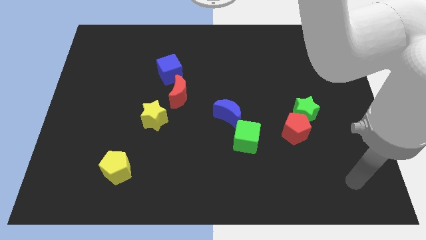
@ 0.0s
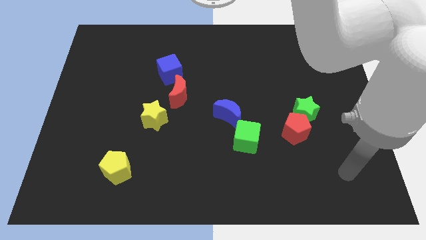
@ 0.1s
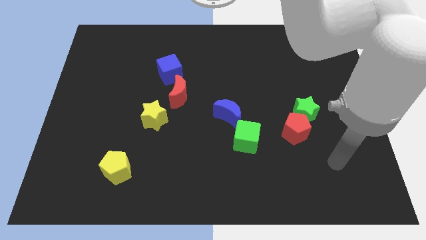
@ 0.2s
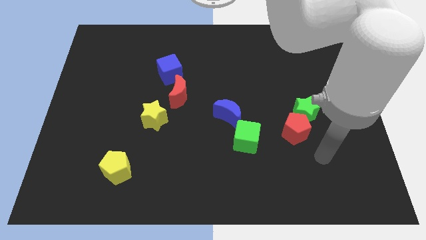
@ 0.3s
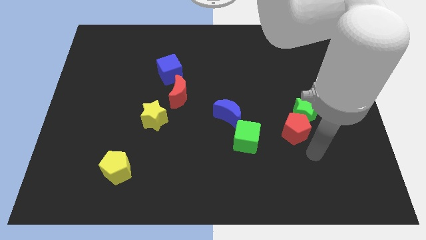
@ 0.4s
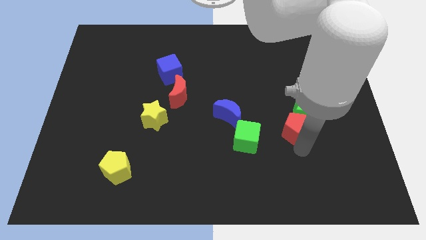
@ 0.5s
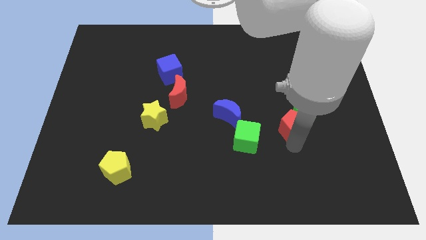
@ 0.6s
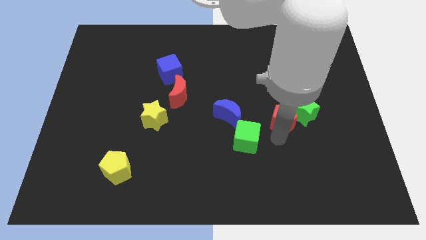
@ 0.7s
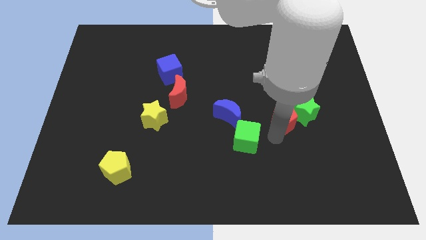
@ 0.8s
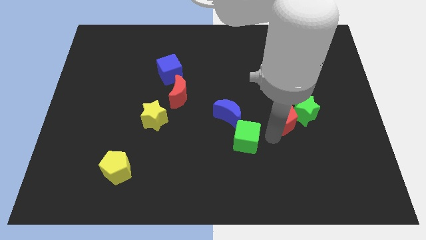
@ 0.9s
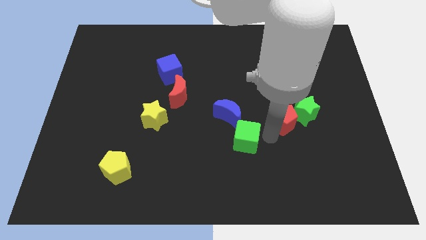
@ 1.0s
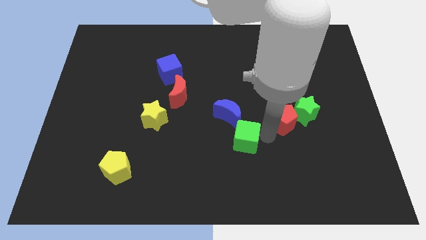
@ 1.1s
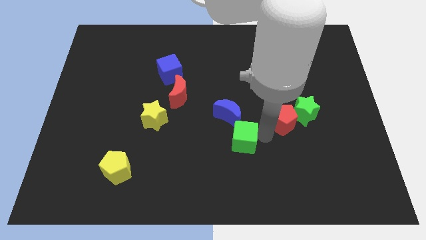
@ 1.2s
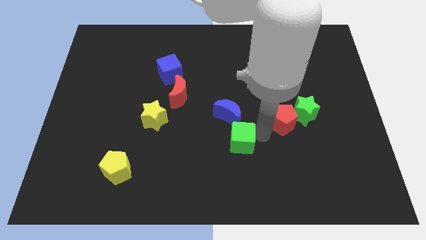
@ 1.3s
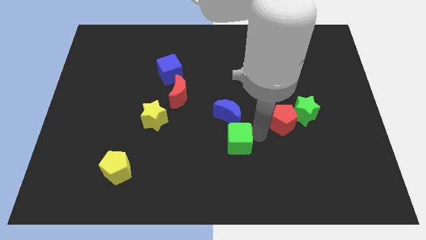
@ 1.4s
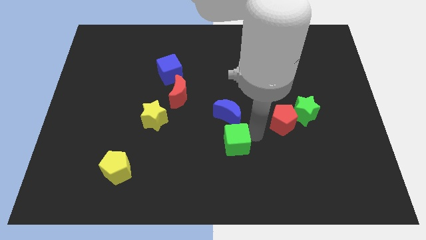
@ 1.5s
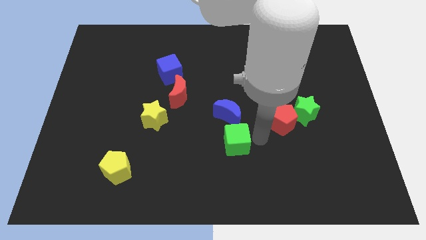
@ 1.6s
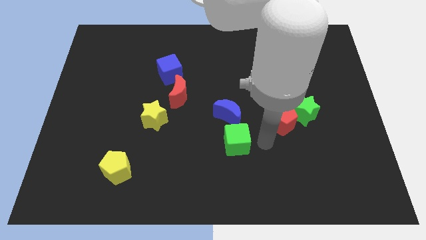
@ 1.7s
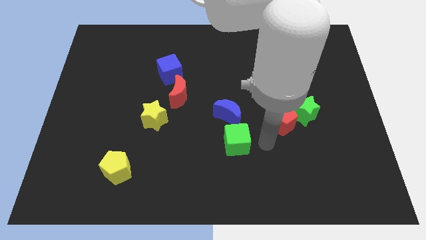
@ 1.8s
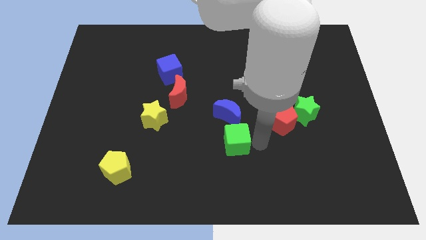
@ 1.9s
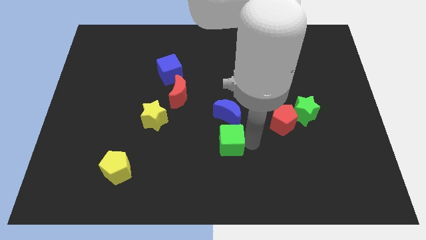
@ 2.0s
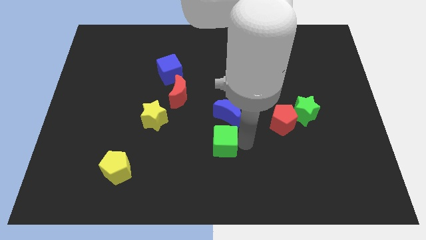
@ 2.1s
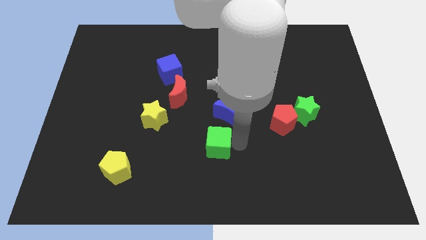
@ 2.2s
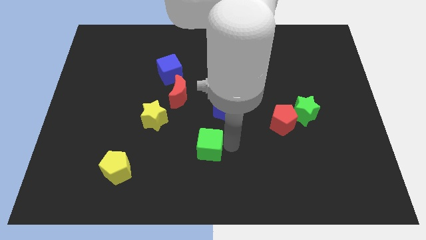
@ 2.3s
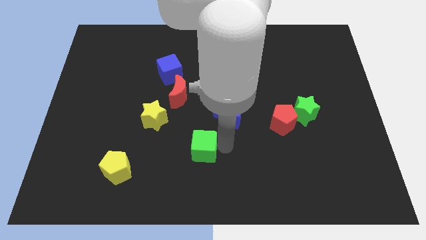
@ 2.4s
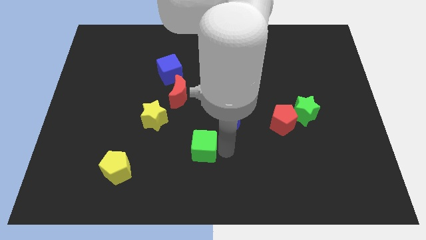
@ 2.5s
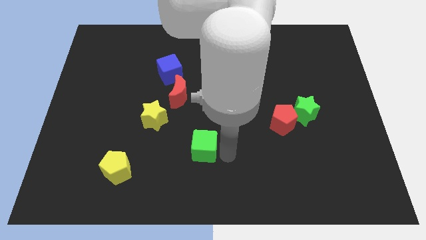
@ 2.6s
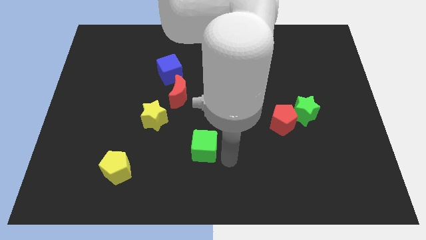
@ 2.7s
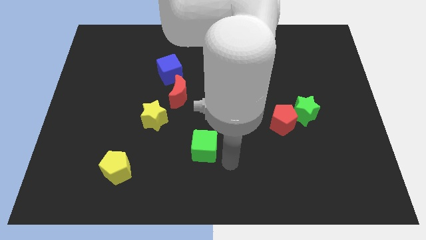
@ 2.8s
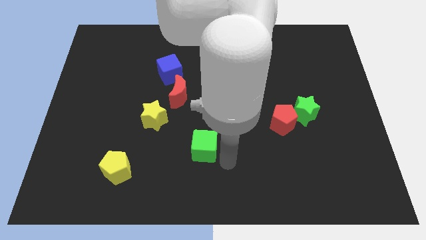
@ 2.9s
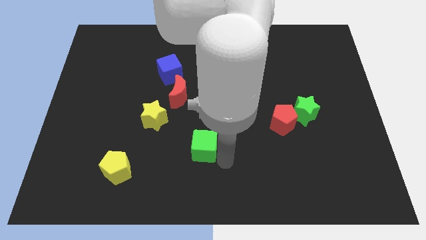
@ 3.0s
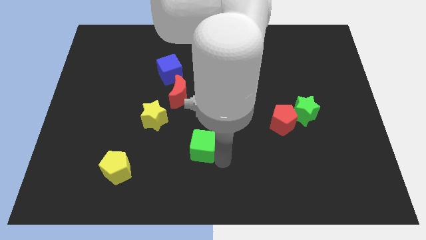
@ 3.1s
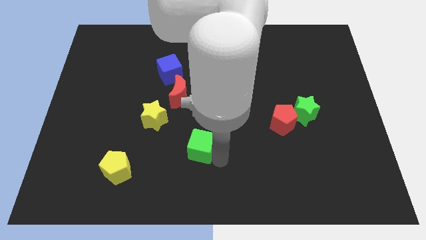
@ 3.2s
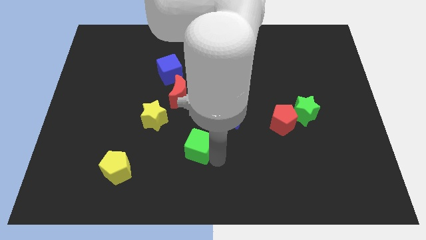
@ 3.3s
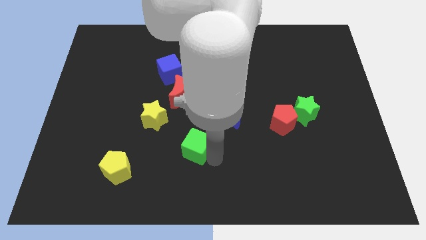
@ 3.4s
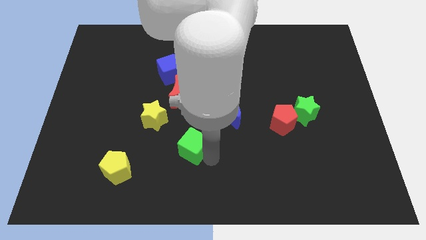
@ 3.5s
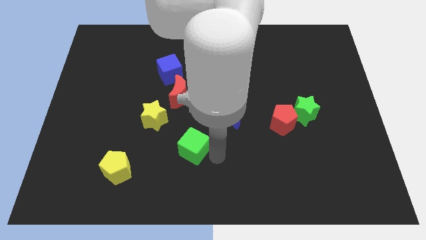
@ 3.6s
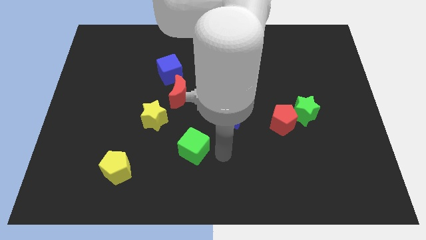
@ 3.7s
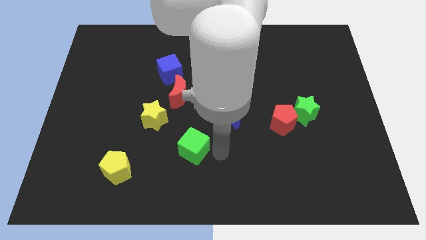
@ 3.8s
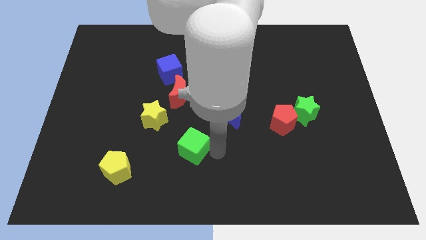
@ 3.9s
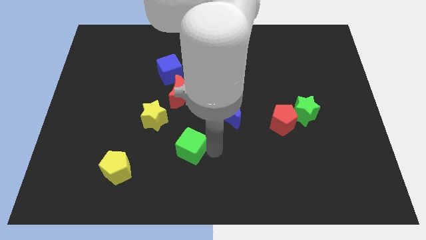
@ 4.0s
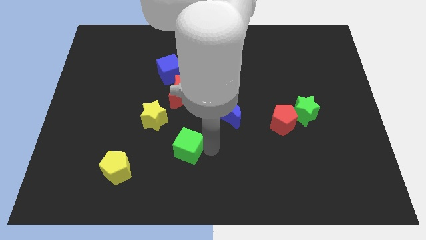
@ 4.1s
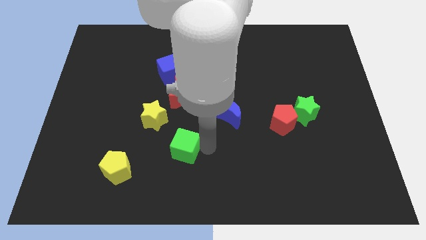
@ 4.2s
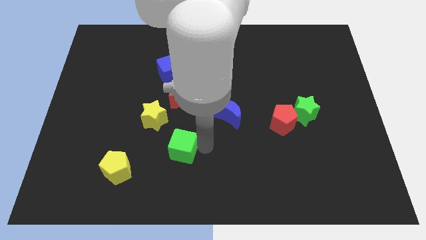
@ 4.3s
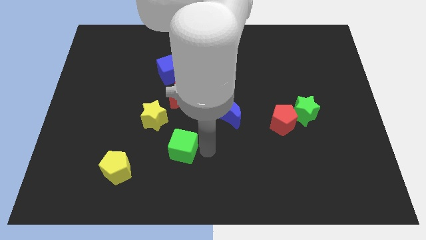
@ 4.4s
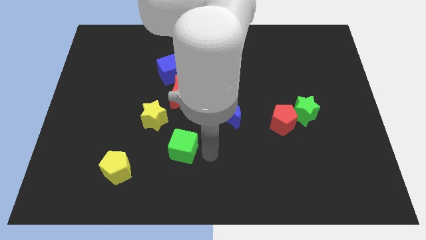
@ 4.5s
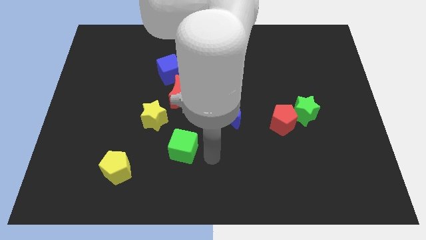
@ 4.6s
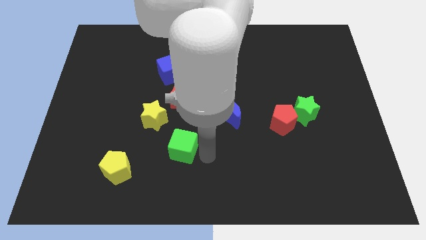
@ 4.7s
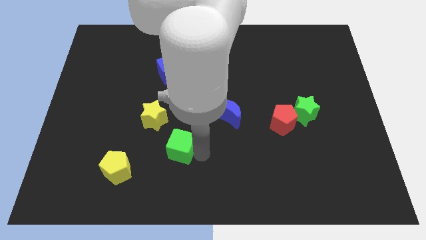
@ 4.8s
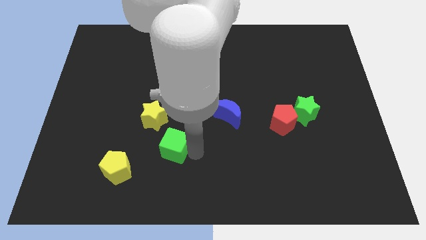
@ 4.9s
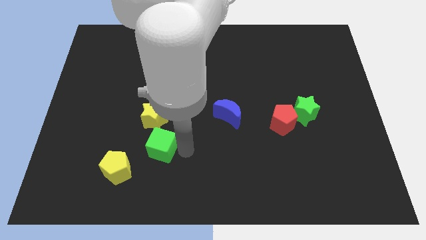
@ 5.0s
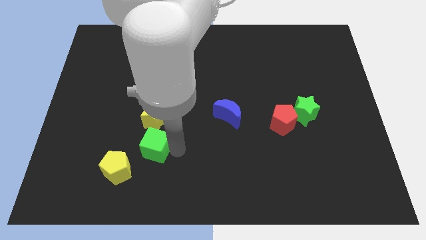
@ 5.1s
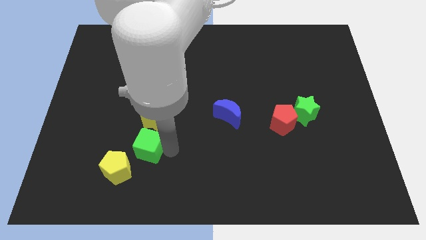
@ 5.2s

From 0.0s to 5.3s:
push the green cube left

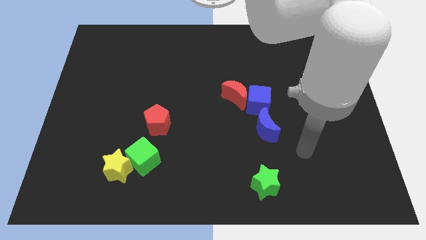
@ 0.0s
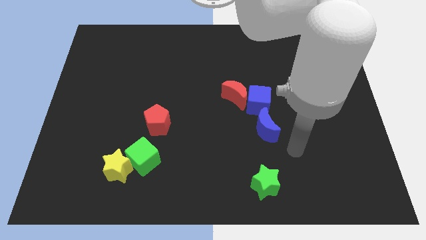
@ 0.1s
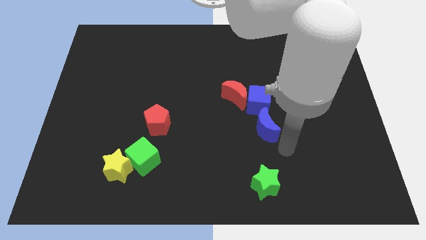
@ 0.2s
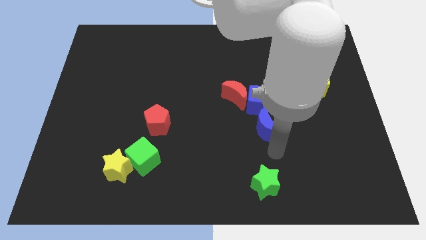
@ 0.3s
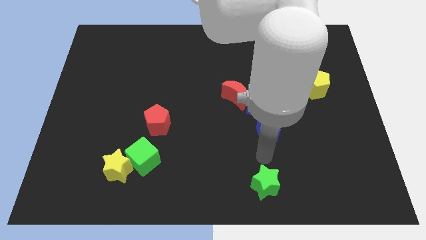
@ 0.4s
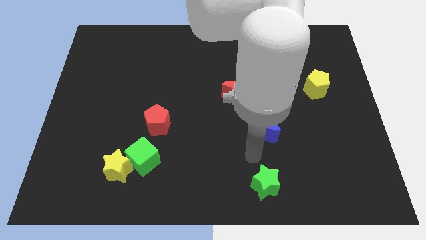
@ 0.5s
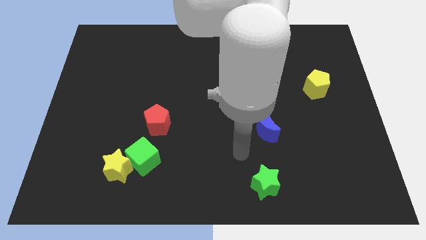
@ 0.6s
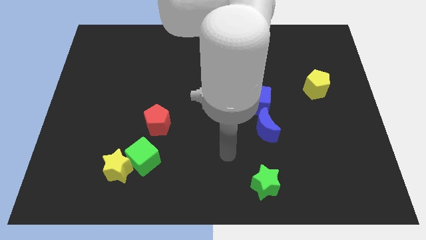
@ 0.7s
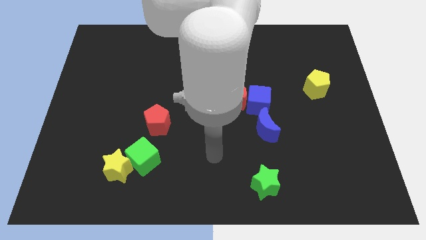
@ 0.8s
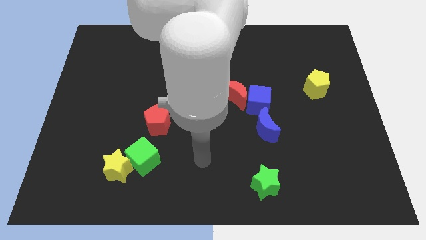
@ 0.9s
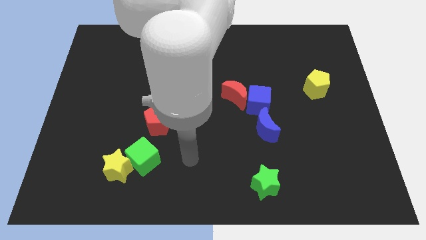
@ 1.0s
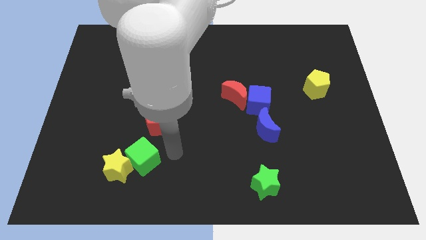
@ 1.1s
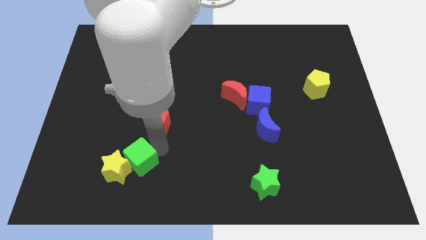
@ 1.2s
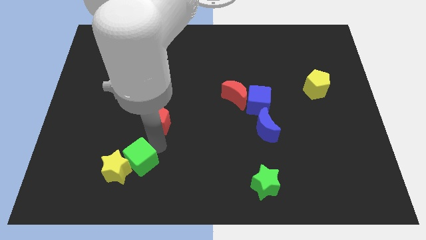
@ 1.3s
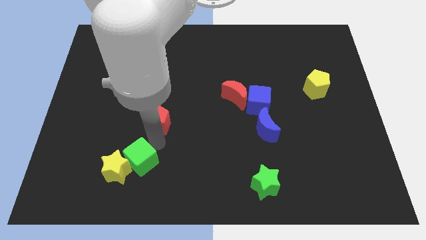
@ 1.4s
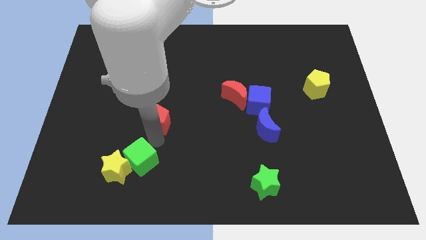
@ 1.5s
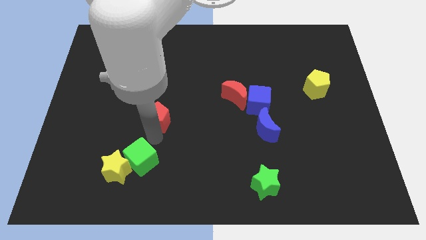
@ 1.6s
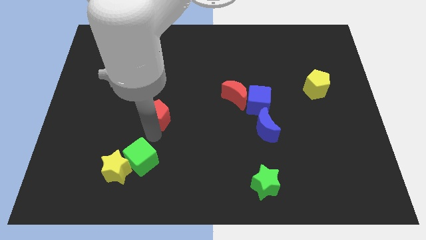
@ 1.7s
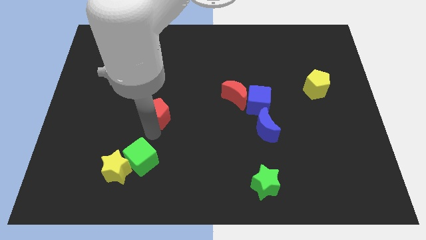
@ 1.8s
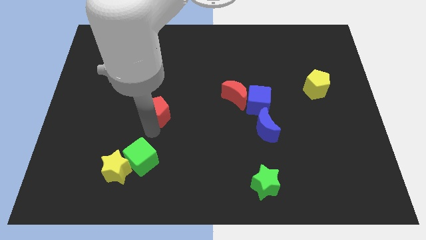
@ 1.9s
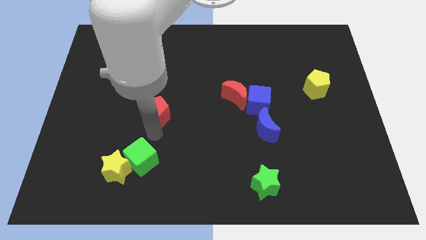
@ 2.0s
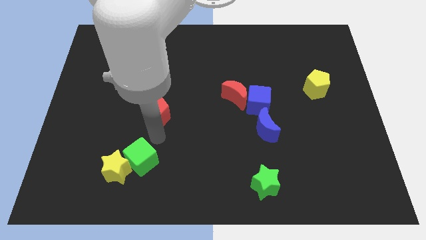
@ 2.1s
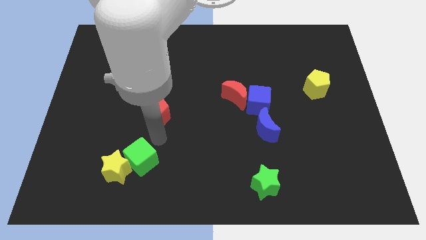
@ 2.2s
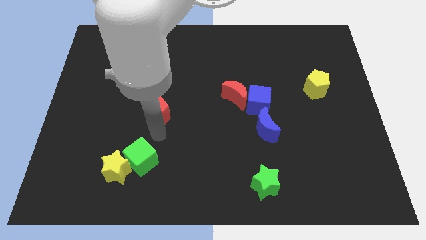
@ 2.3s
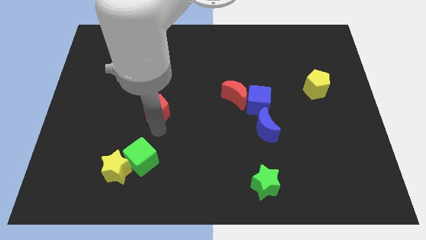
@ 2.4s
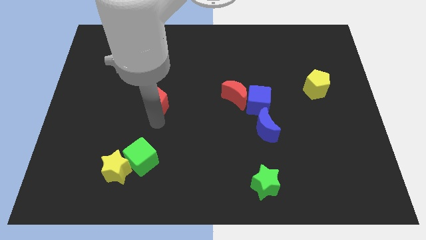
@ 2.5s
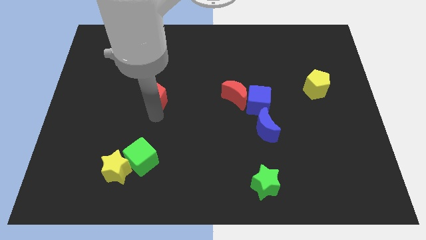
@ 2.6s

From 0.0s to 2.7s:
push the red pentagon upwards a little bit
